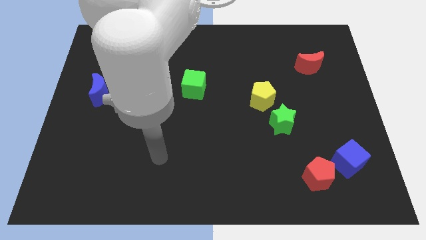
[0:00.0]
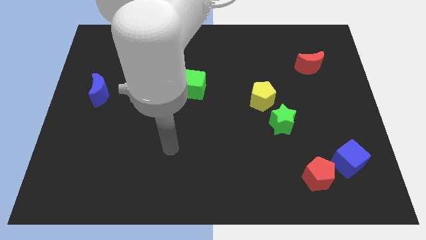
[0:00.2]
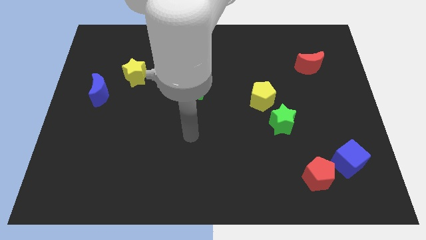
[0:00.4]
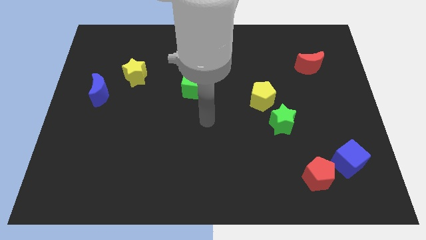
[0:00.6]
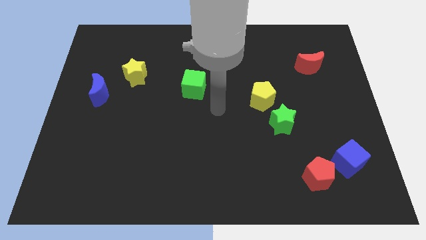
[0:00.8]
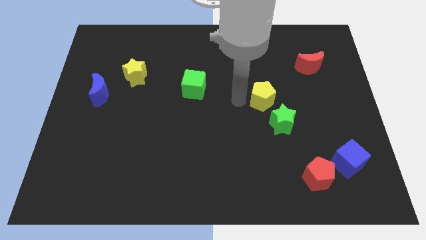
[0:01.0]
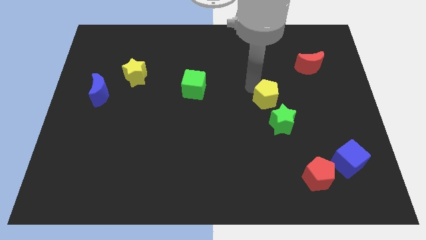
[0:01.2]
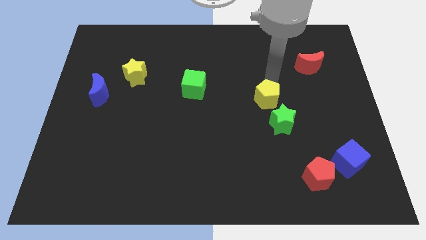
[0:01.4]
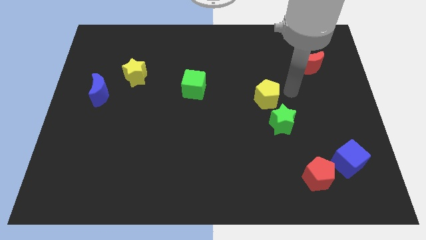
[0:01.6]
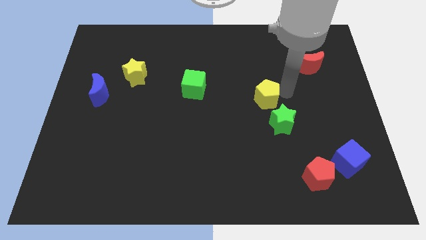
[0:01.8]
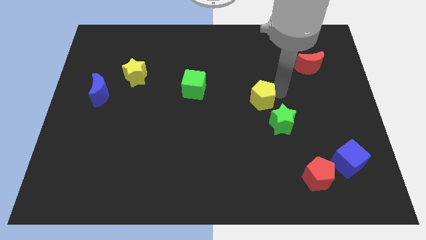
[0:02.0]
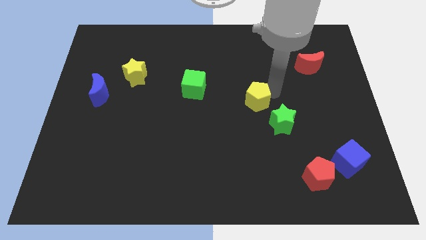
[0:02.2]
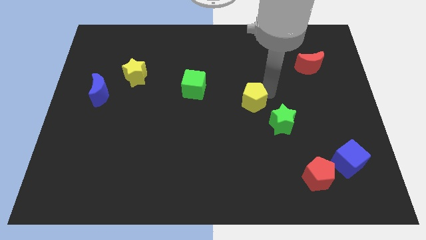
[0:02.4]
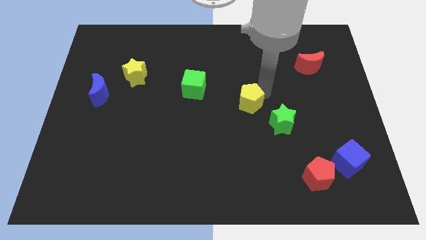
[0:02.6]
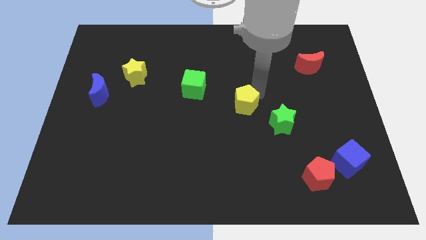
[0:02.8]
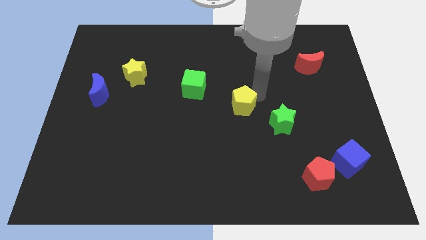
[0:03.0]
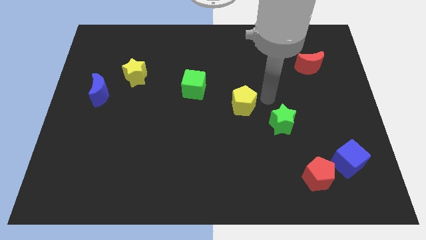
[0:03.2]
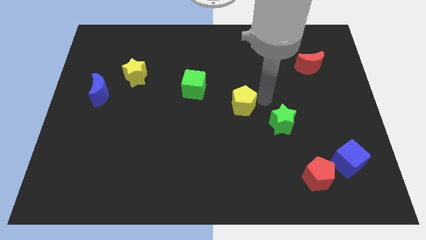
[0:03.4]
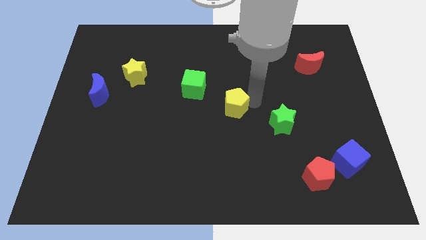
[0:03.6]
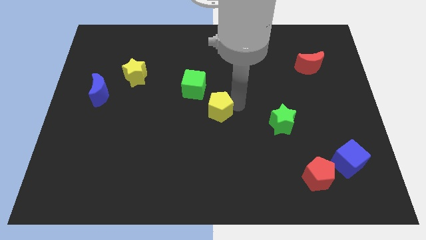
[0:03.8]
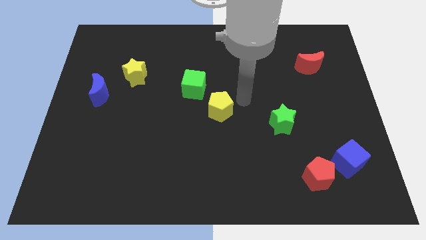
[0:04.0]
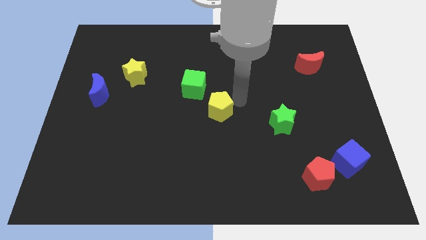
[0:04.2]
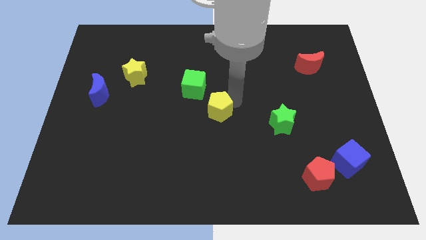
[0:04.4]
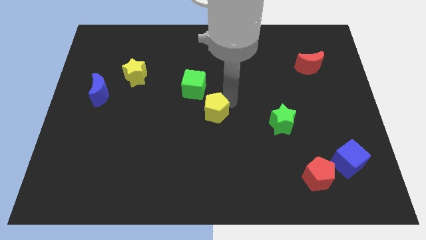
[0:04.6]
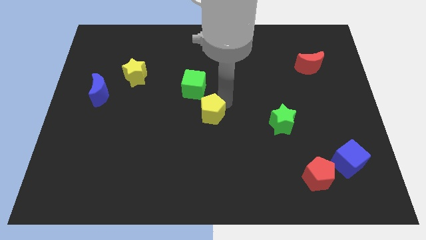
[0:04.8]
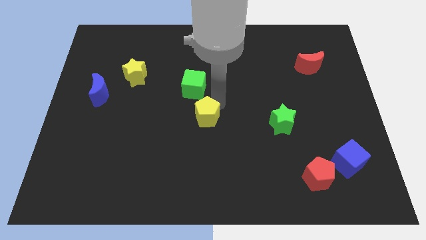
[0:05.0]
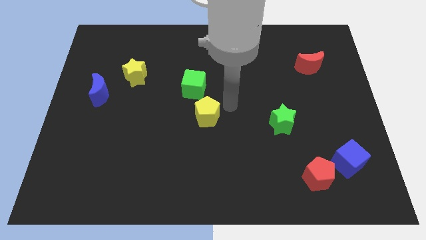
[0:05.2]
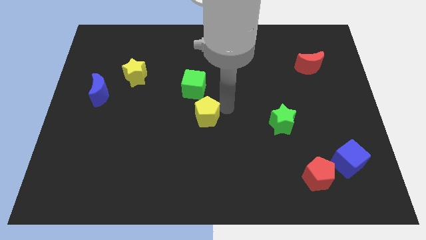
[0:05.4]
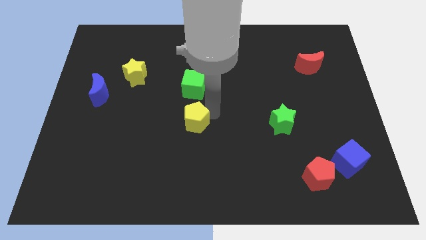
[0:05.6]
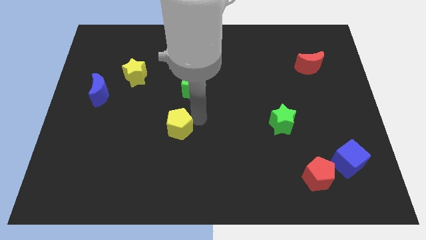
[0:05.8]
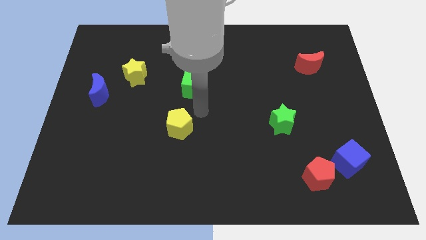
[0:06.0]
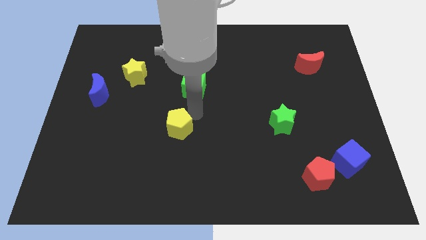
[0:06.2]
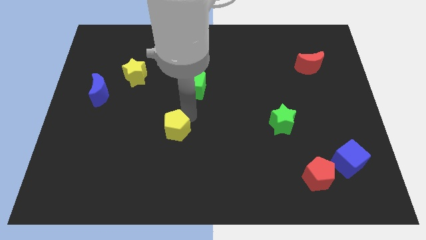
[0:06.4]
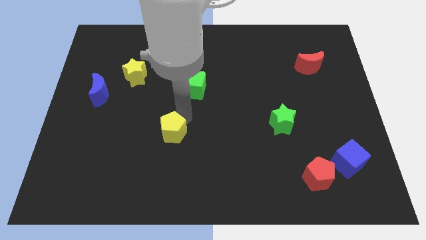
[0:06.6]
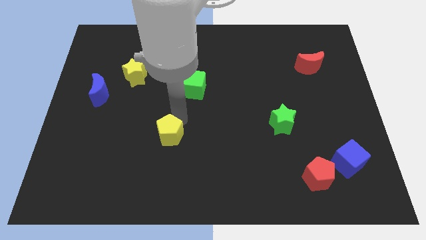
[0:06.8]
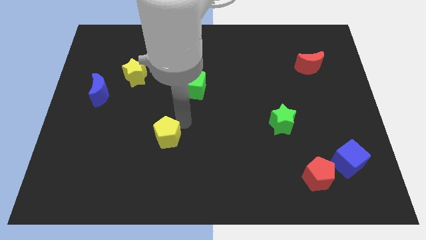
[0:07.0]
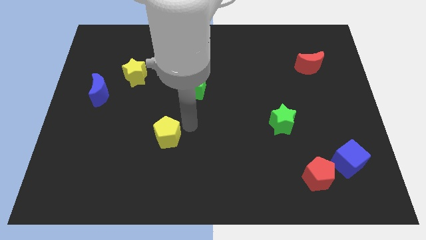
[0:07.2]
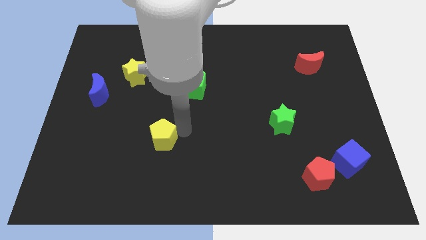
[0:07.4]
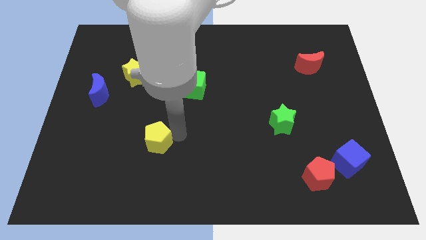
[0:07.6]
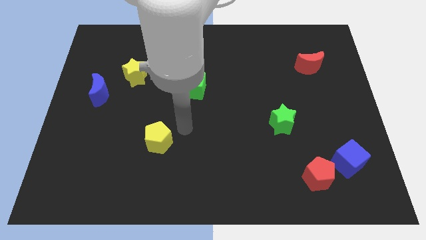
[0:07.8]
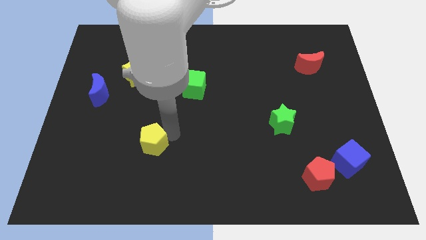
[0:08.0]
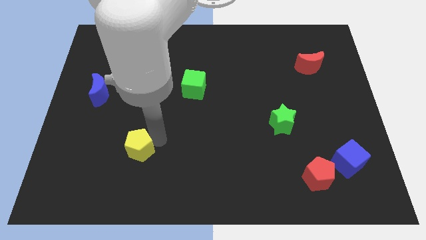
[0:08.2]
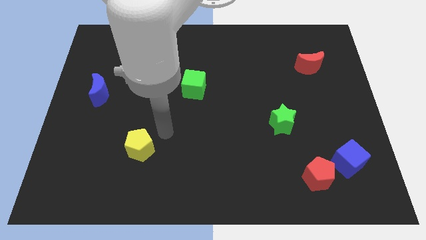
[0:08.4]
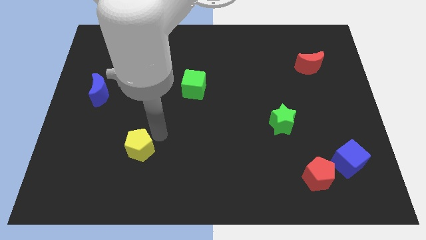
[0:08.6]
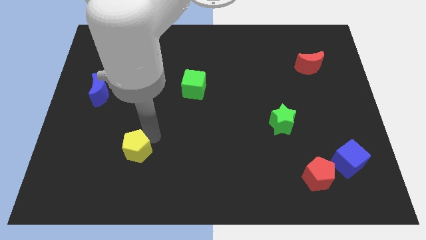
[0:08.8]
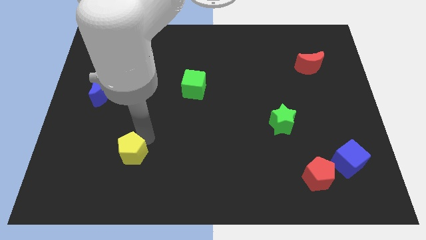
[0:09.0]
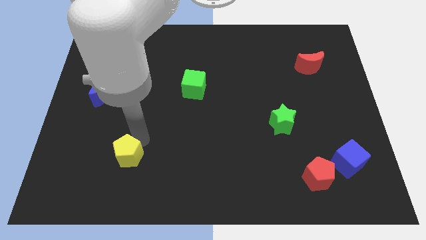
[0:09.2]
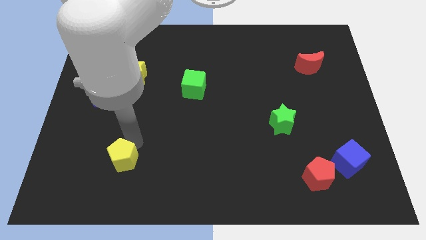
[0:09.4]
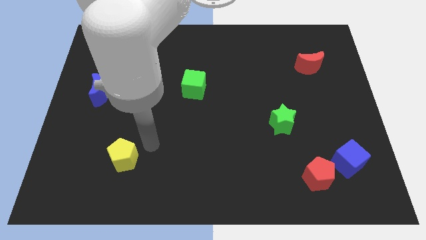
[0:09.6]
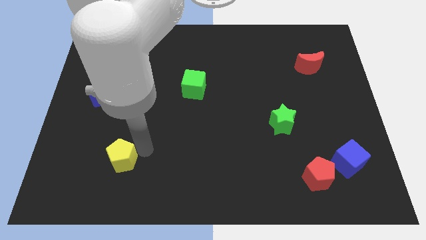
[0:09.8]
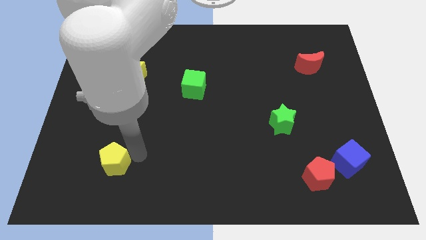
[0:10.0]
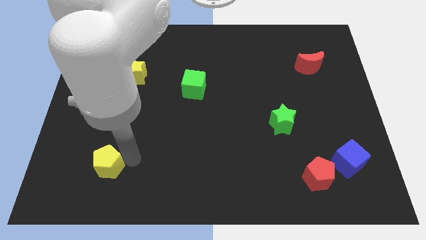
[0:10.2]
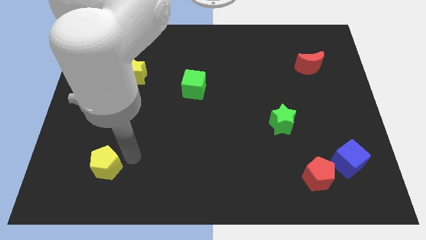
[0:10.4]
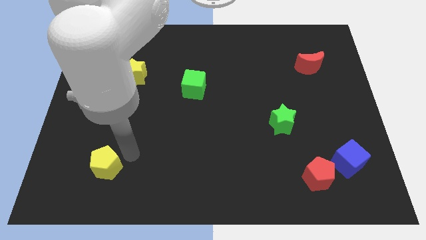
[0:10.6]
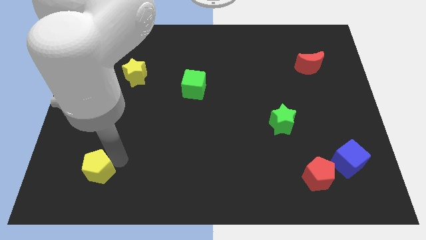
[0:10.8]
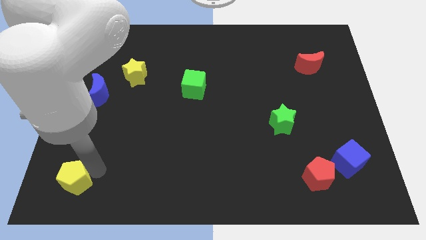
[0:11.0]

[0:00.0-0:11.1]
push the yellow pentagon to the lower left corner

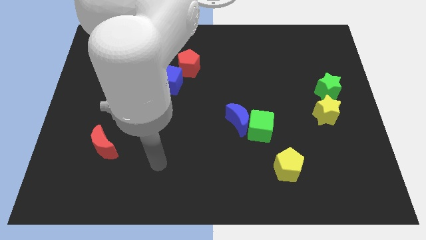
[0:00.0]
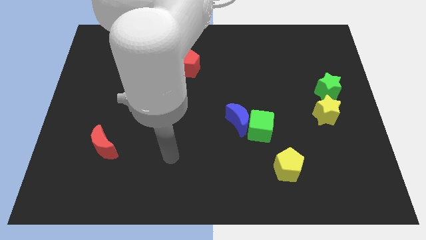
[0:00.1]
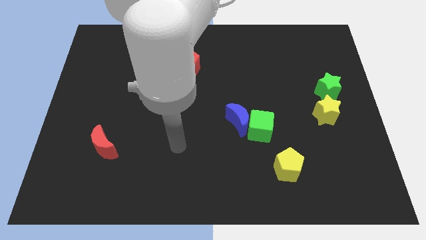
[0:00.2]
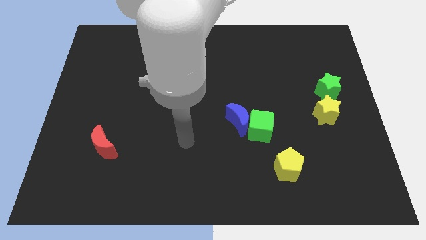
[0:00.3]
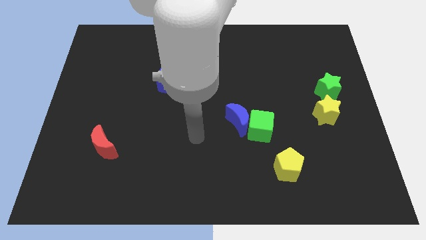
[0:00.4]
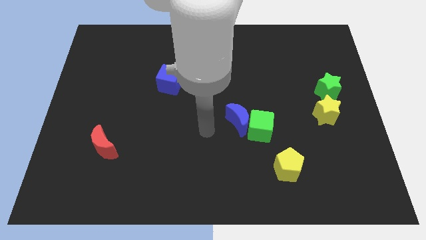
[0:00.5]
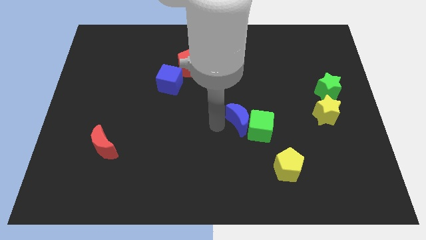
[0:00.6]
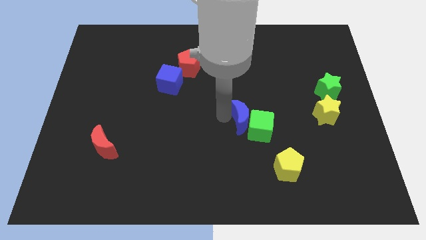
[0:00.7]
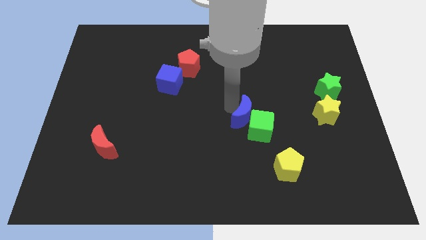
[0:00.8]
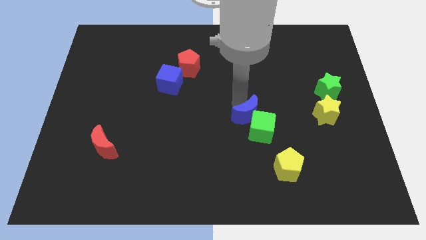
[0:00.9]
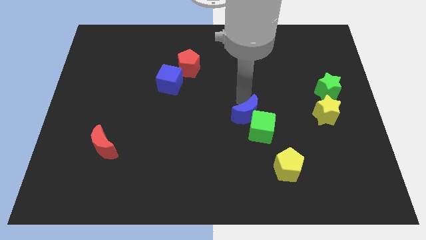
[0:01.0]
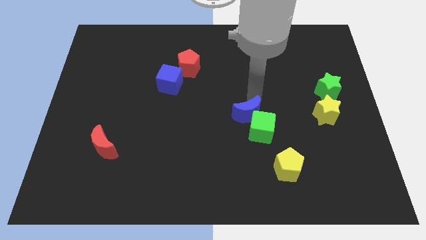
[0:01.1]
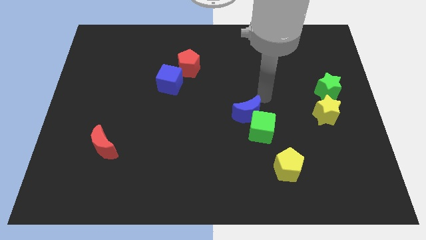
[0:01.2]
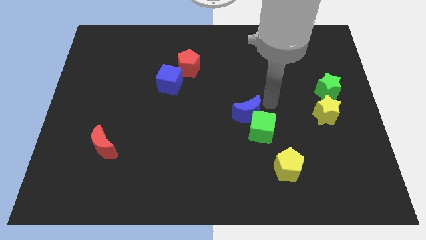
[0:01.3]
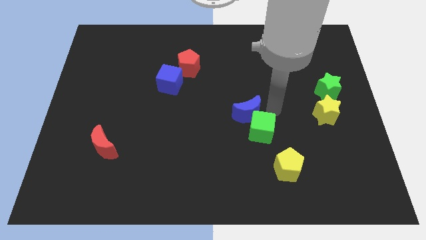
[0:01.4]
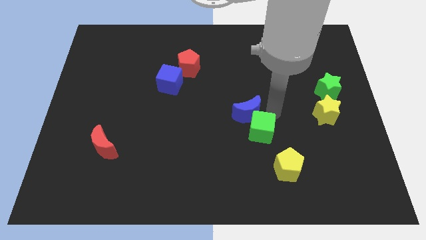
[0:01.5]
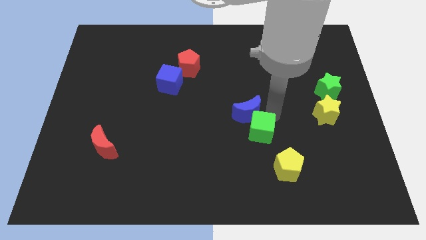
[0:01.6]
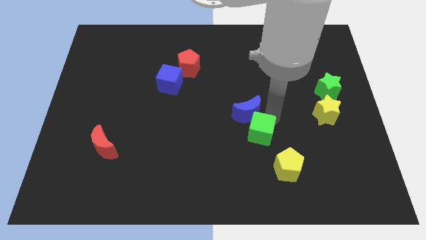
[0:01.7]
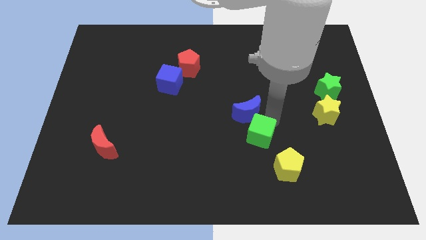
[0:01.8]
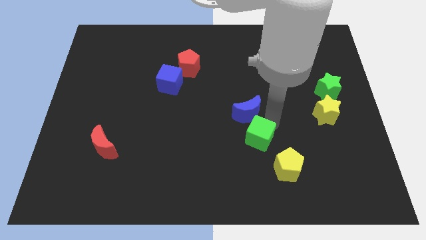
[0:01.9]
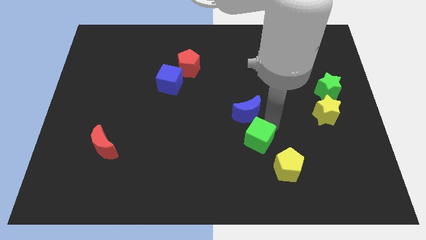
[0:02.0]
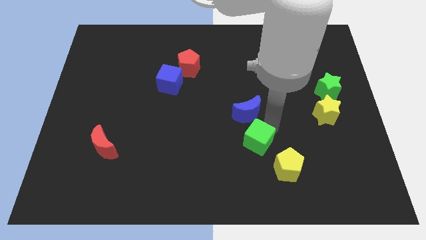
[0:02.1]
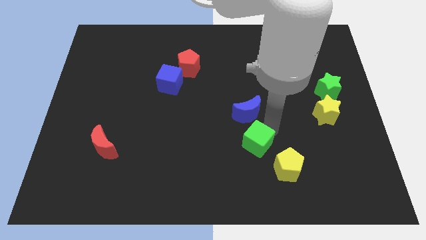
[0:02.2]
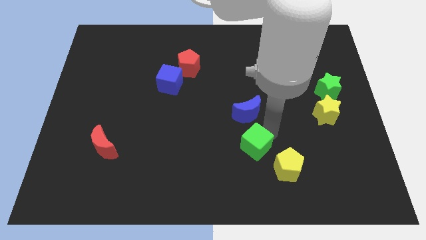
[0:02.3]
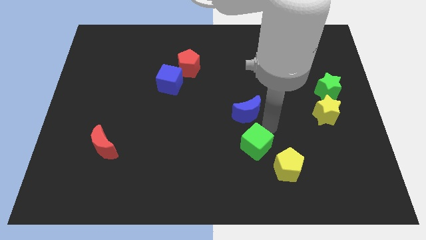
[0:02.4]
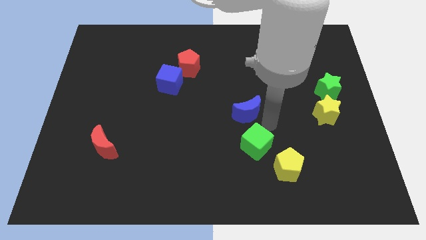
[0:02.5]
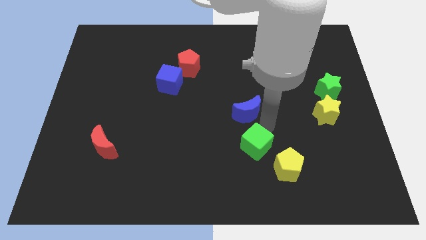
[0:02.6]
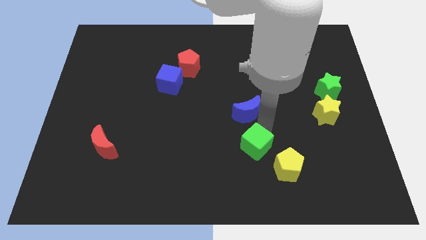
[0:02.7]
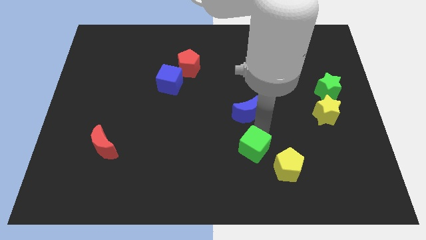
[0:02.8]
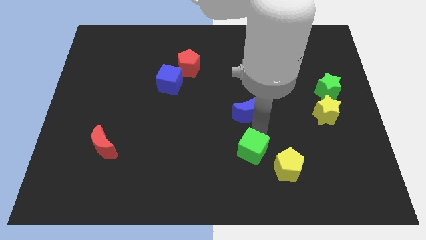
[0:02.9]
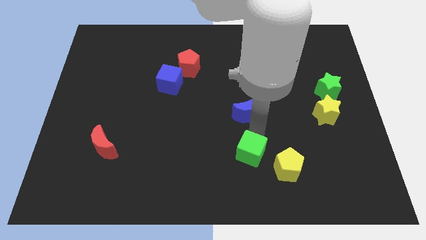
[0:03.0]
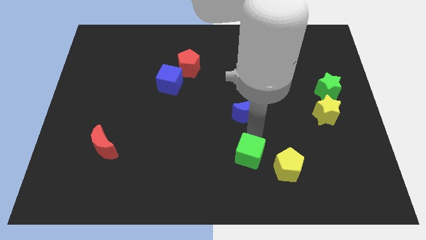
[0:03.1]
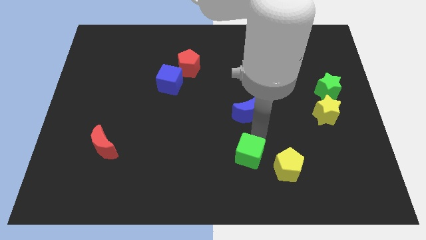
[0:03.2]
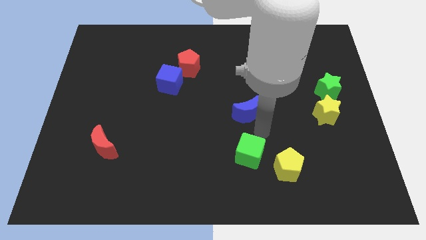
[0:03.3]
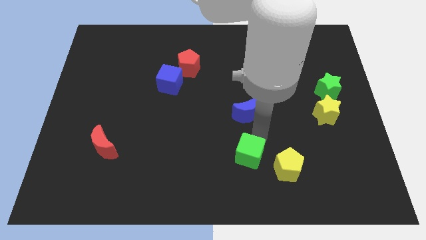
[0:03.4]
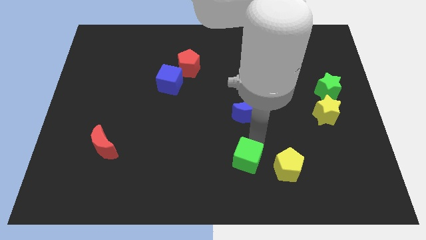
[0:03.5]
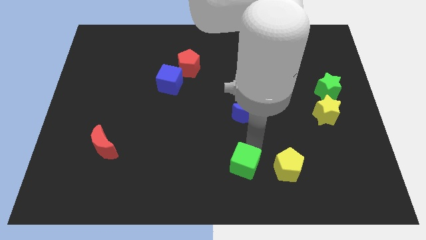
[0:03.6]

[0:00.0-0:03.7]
put the green cube to the bottom side
